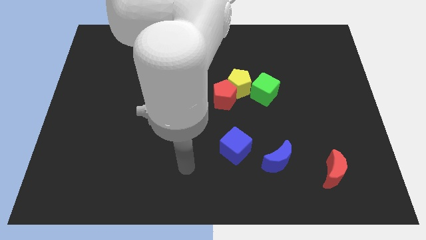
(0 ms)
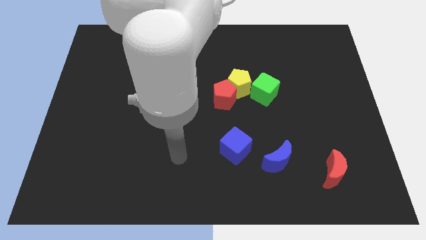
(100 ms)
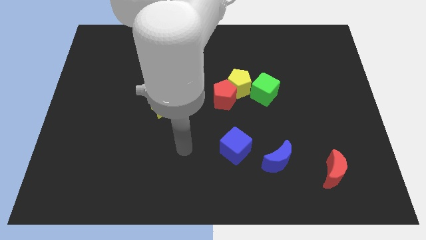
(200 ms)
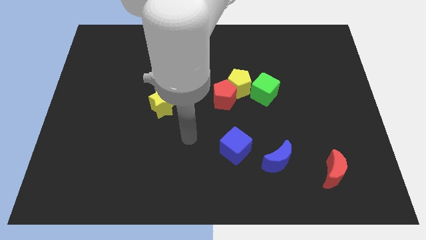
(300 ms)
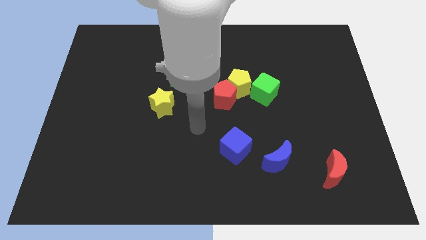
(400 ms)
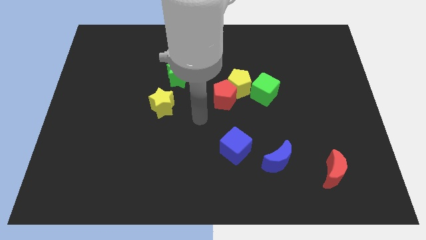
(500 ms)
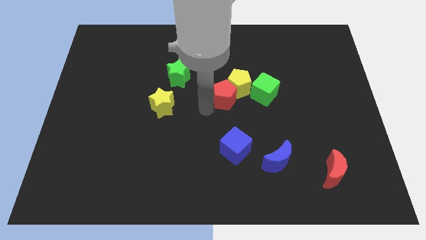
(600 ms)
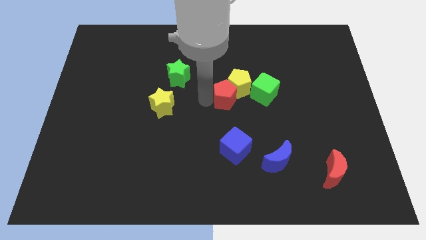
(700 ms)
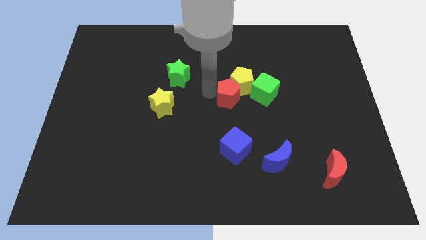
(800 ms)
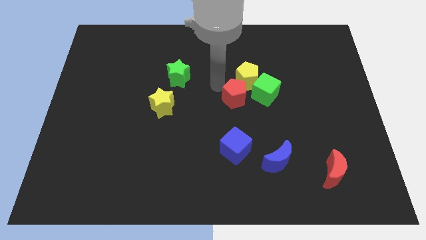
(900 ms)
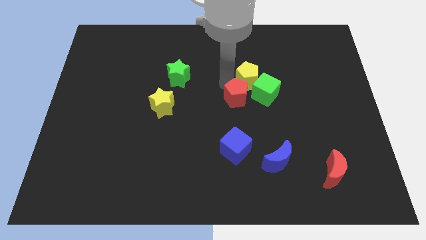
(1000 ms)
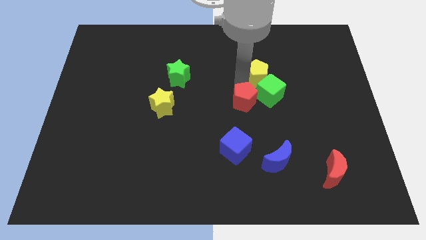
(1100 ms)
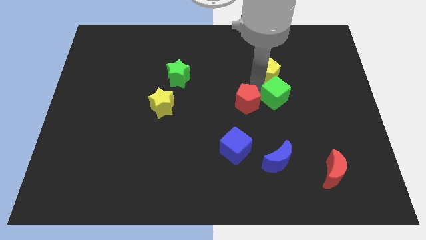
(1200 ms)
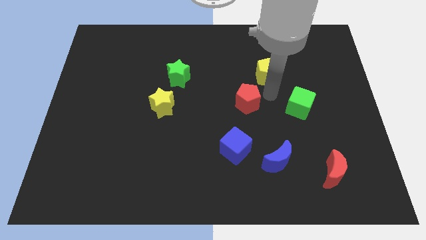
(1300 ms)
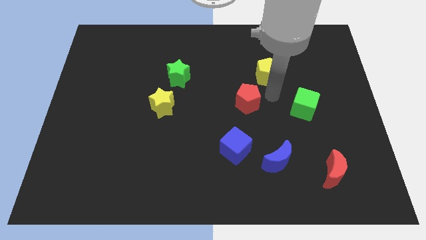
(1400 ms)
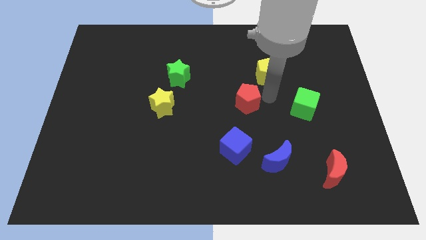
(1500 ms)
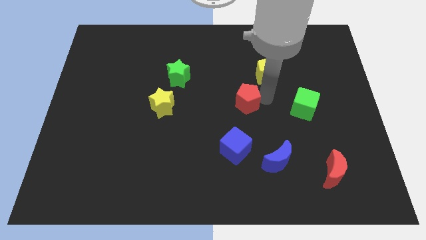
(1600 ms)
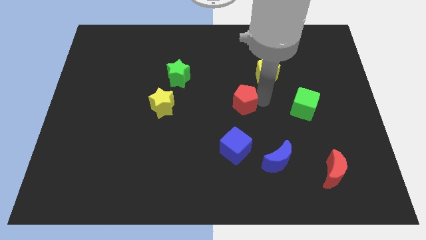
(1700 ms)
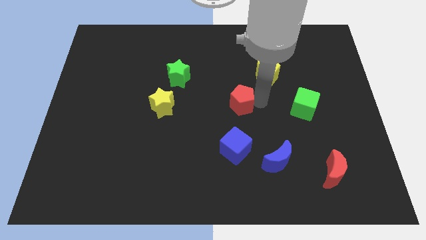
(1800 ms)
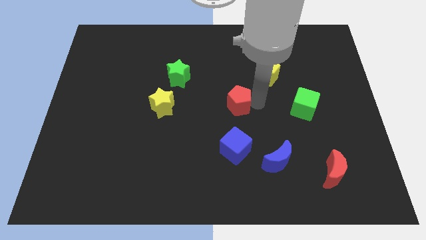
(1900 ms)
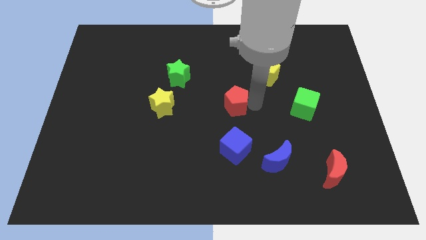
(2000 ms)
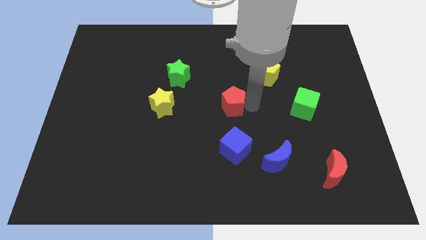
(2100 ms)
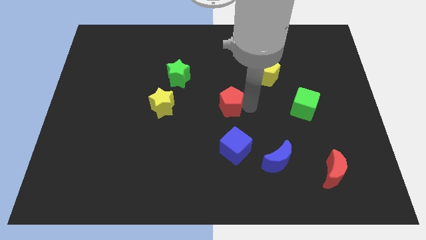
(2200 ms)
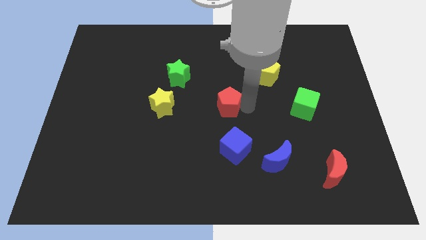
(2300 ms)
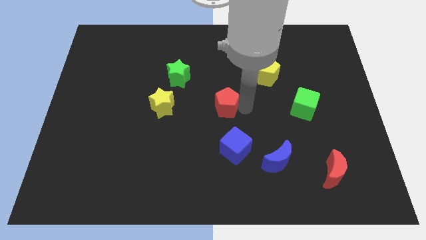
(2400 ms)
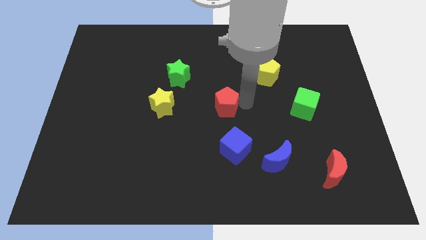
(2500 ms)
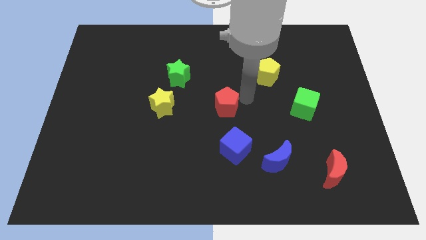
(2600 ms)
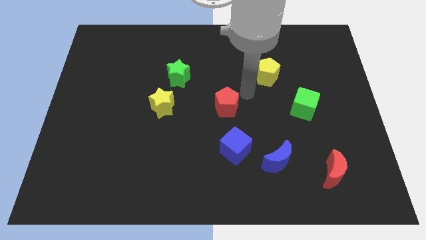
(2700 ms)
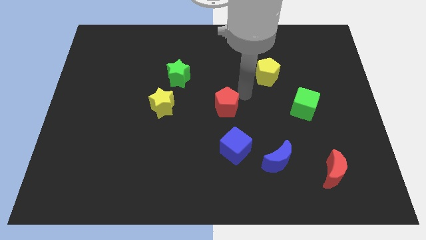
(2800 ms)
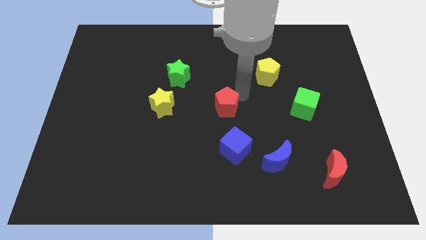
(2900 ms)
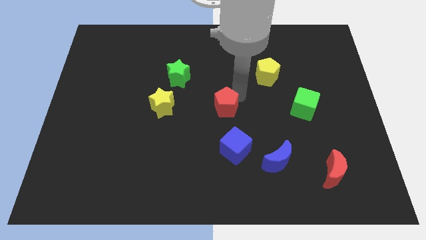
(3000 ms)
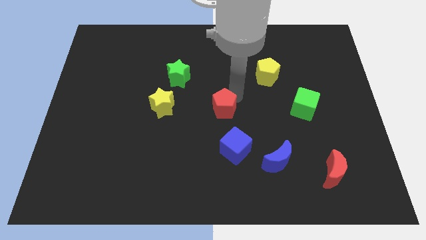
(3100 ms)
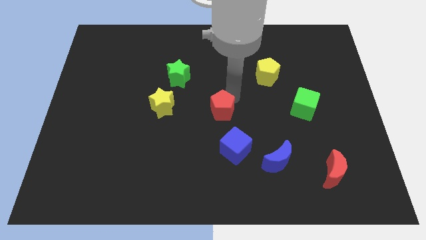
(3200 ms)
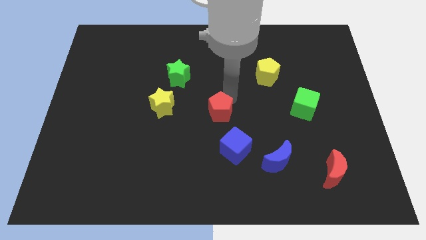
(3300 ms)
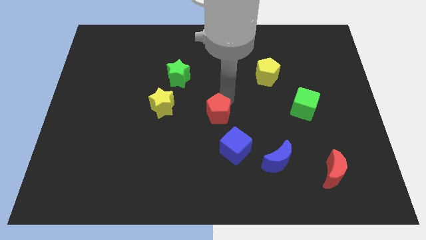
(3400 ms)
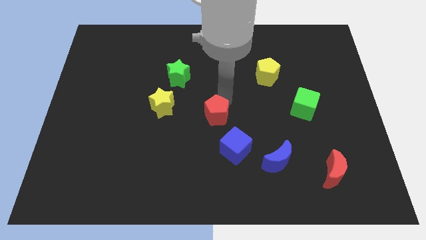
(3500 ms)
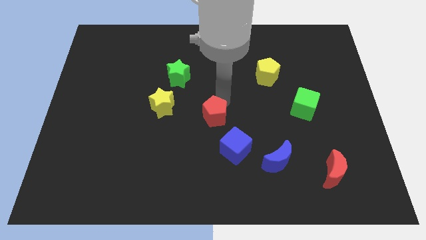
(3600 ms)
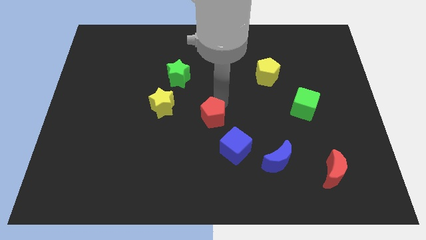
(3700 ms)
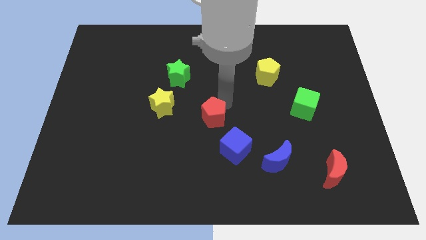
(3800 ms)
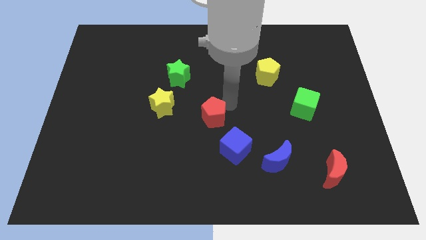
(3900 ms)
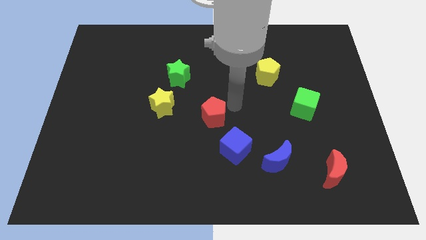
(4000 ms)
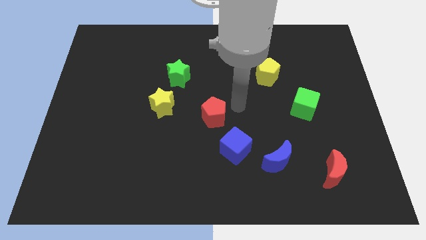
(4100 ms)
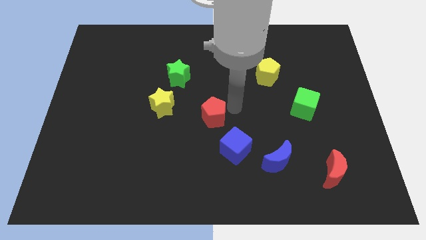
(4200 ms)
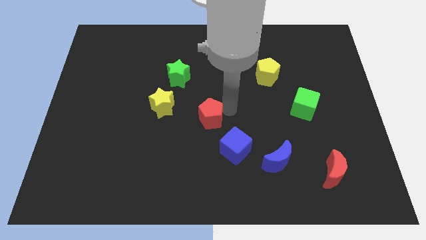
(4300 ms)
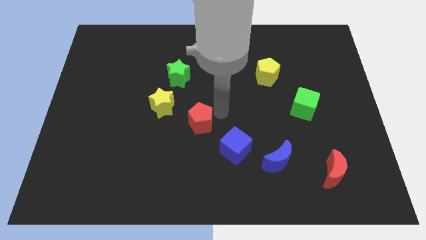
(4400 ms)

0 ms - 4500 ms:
slightly slide the red pentagon diagonally down and to the left

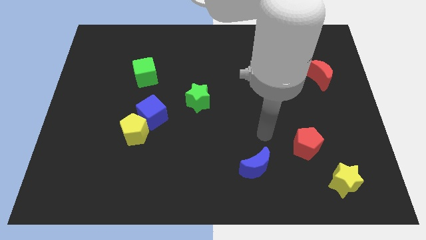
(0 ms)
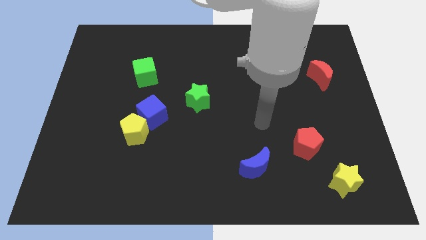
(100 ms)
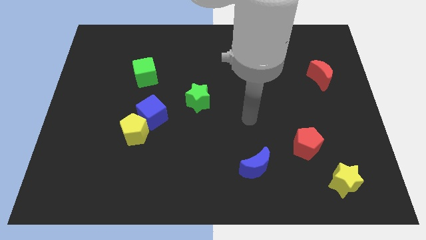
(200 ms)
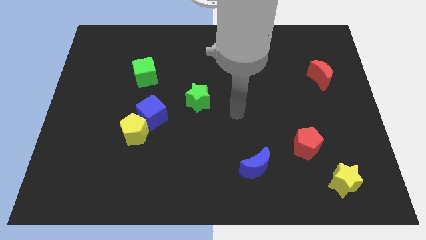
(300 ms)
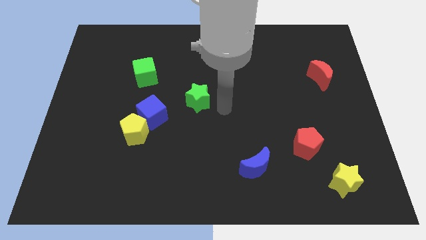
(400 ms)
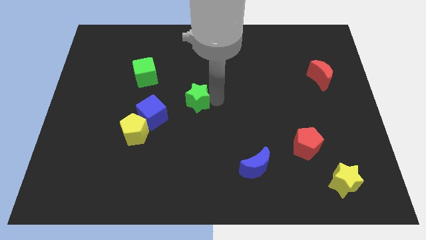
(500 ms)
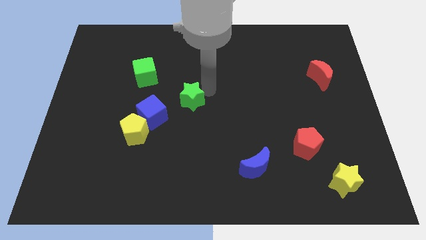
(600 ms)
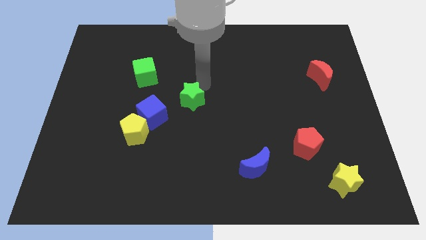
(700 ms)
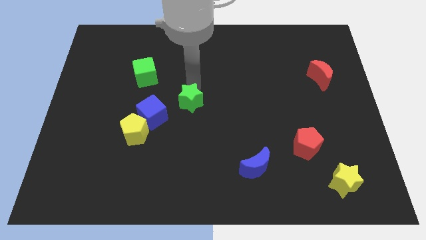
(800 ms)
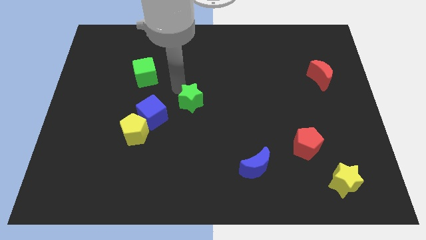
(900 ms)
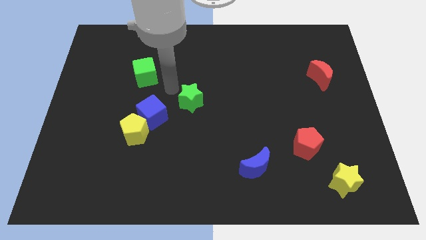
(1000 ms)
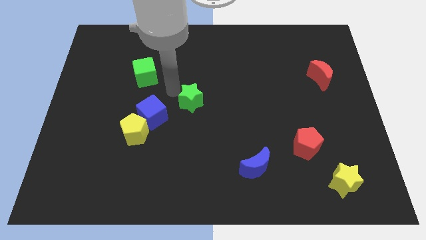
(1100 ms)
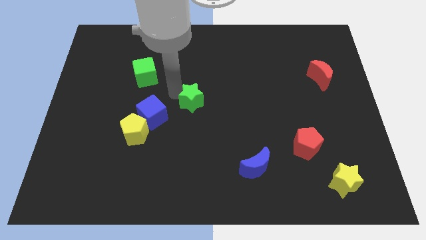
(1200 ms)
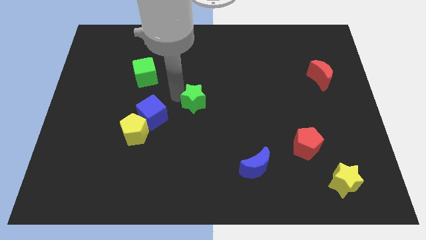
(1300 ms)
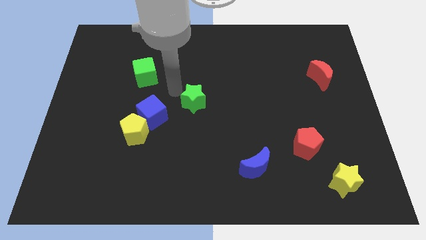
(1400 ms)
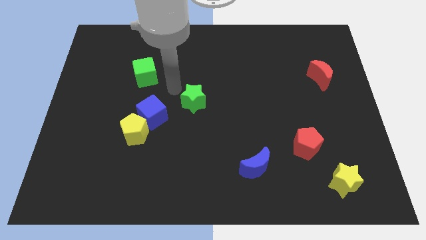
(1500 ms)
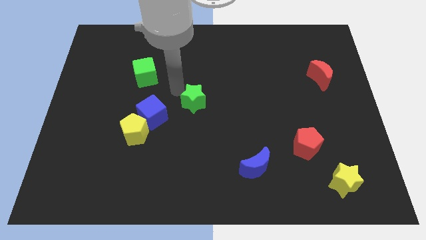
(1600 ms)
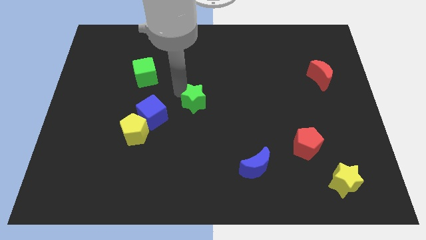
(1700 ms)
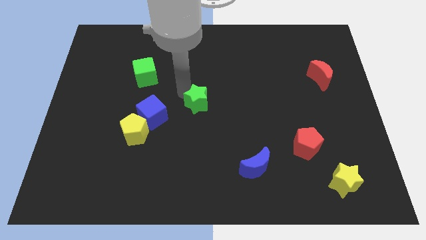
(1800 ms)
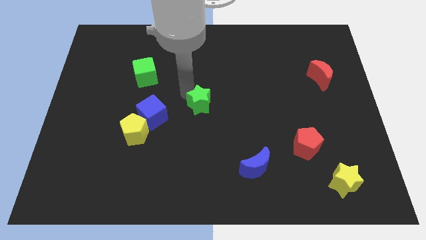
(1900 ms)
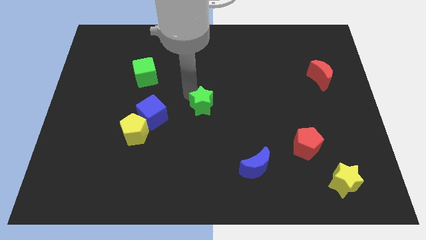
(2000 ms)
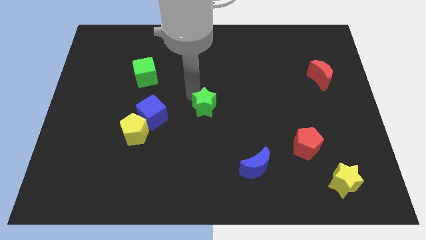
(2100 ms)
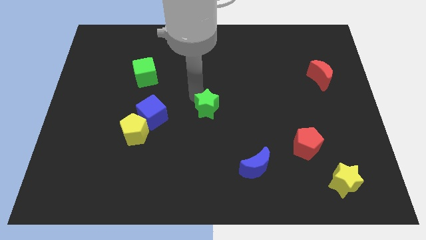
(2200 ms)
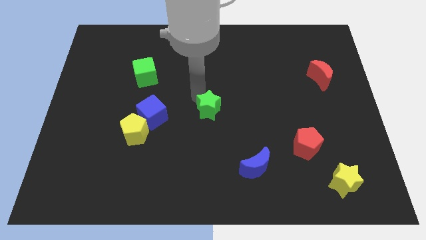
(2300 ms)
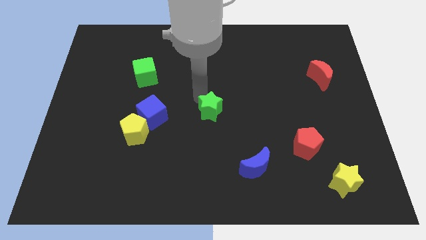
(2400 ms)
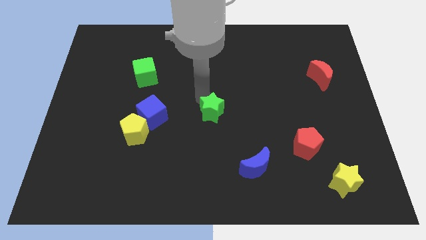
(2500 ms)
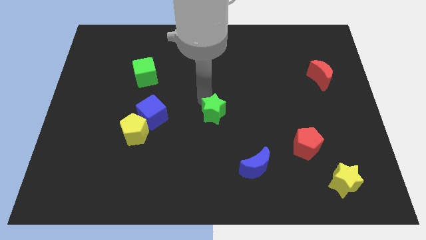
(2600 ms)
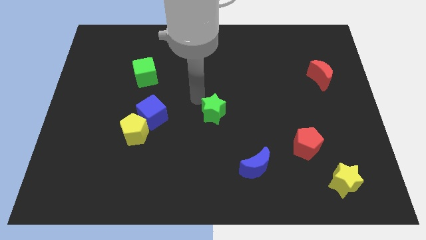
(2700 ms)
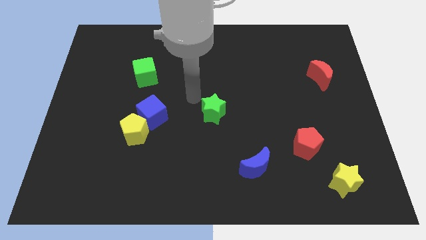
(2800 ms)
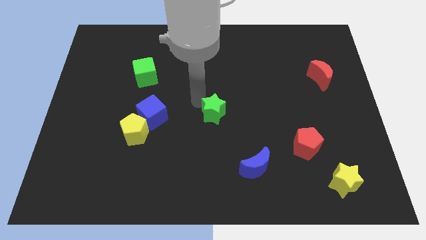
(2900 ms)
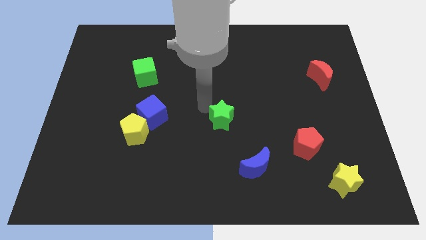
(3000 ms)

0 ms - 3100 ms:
slide the green star downwards and right diagonally a little

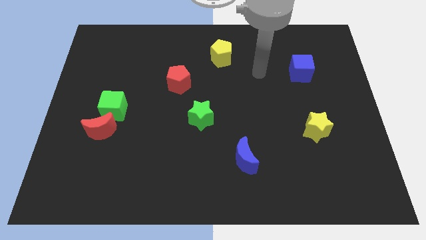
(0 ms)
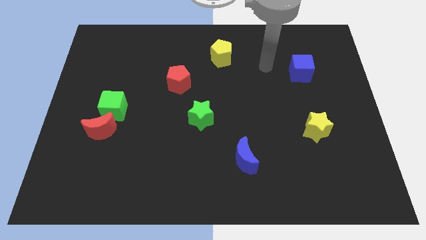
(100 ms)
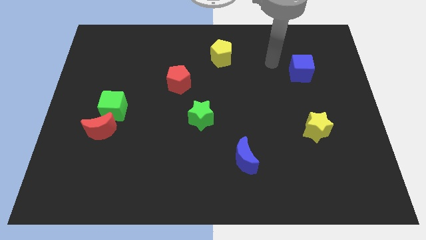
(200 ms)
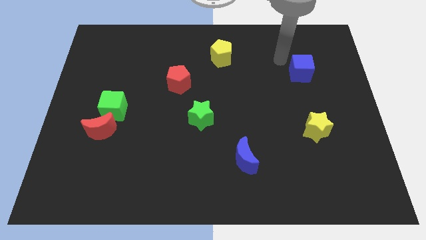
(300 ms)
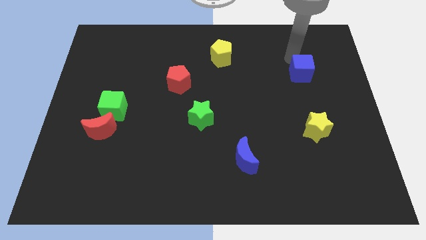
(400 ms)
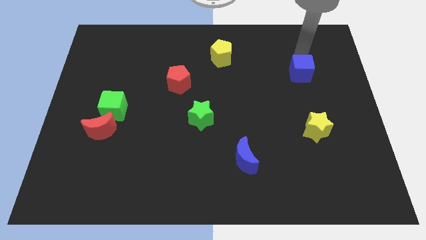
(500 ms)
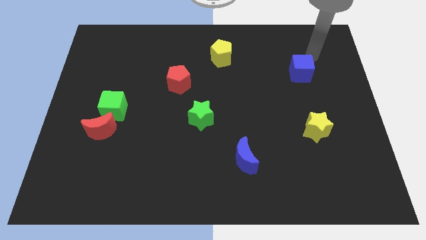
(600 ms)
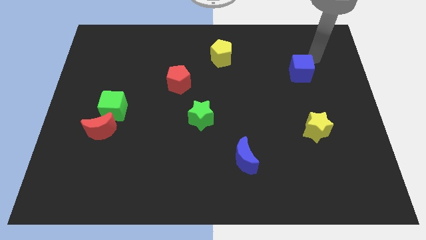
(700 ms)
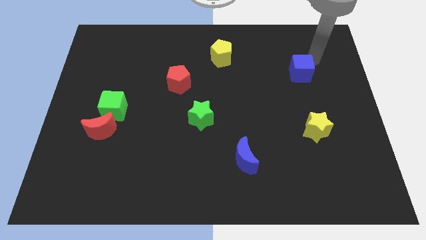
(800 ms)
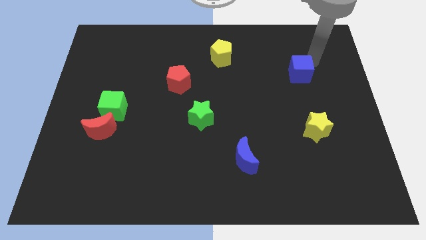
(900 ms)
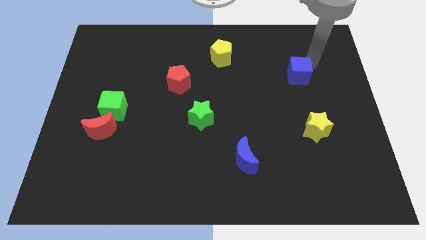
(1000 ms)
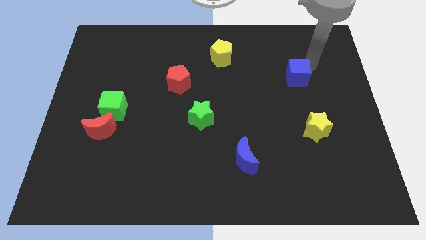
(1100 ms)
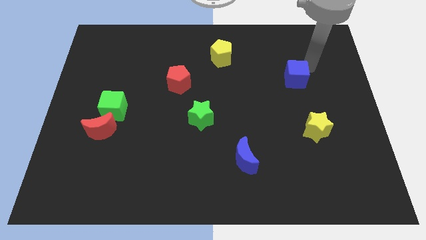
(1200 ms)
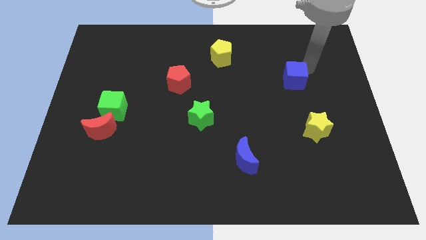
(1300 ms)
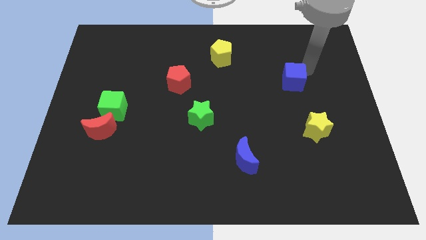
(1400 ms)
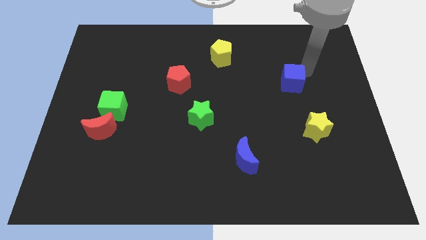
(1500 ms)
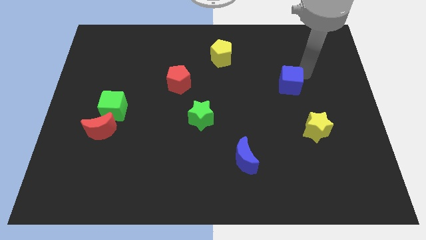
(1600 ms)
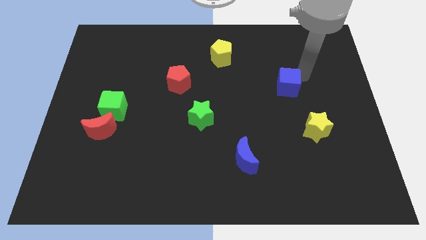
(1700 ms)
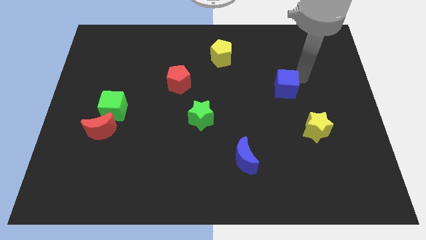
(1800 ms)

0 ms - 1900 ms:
push the blue cube diagonally downwards and to the left somewhat
